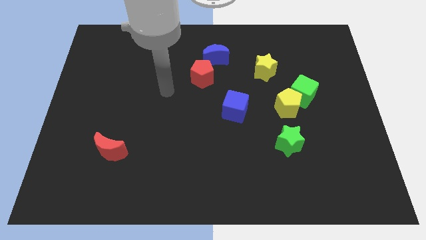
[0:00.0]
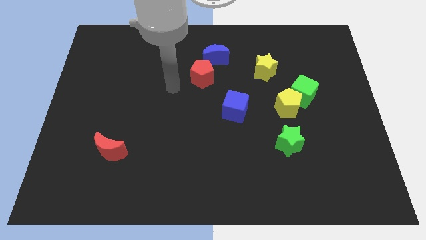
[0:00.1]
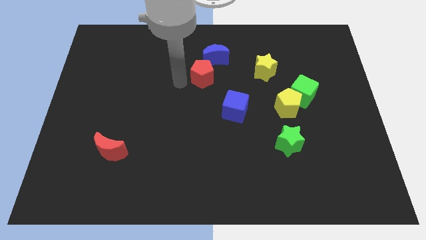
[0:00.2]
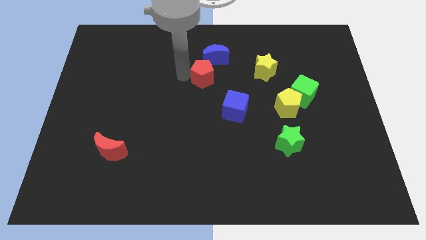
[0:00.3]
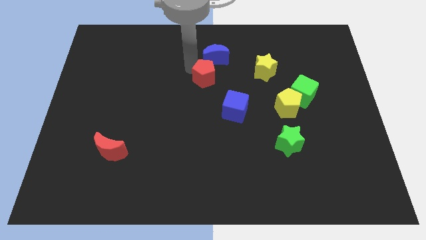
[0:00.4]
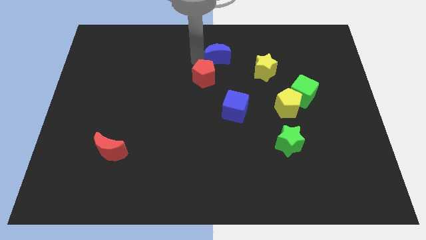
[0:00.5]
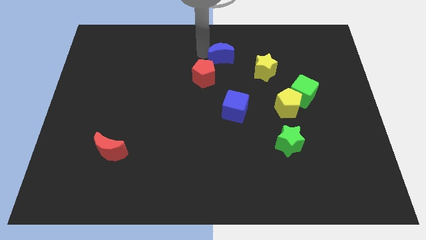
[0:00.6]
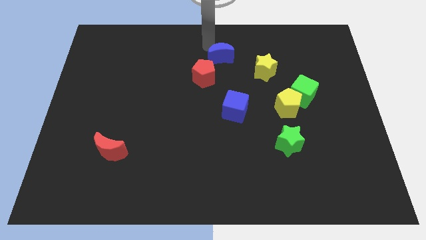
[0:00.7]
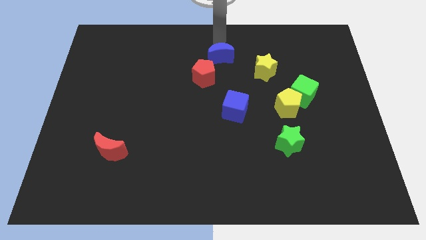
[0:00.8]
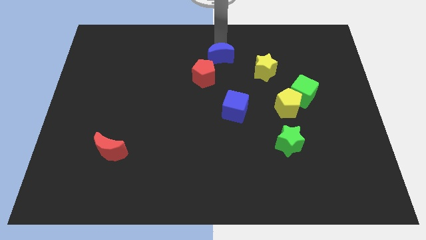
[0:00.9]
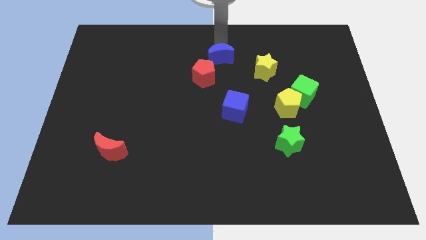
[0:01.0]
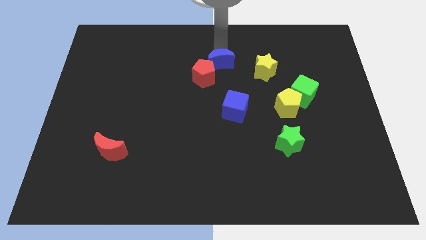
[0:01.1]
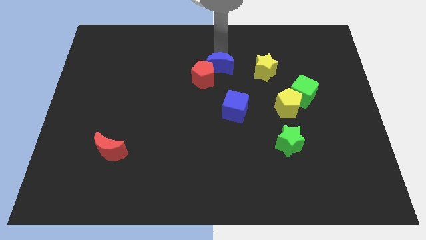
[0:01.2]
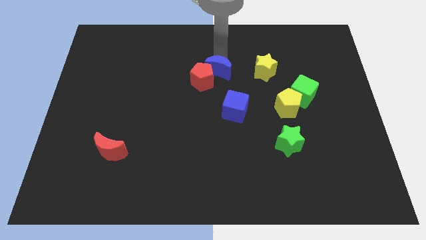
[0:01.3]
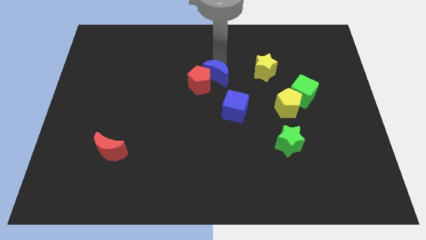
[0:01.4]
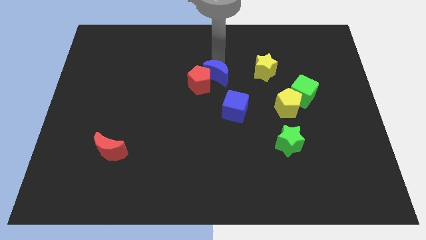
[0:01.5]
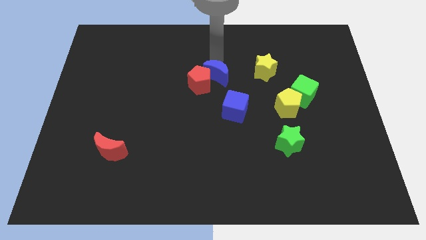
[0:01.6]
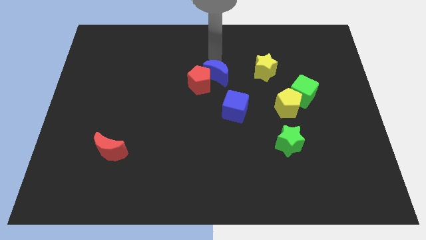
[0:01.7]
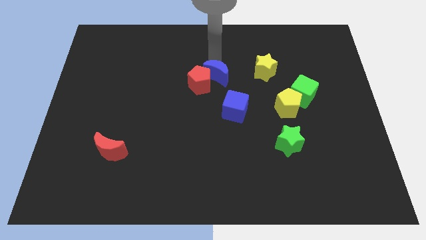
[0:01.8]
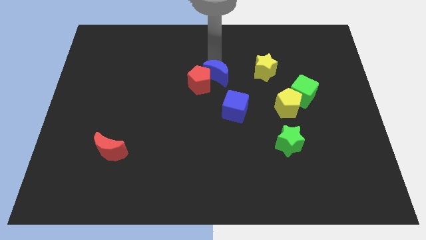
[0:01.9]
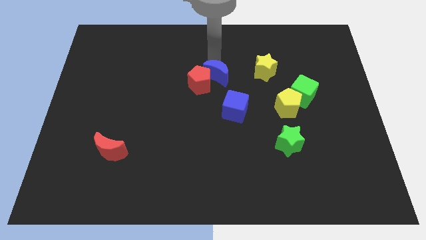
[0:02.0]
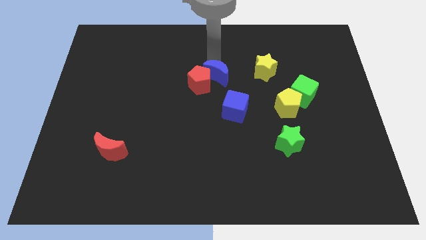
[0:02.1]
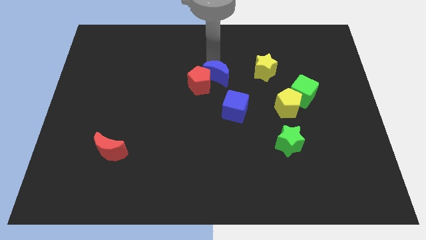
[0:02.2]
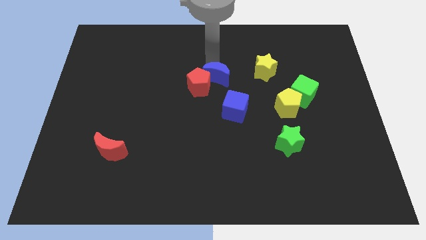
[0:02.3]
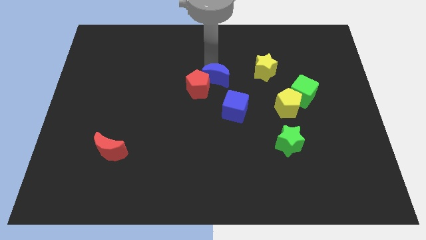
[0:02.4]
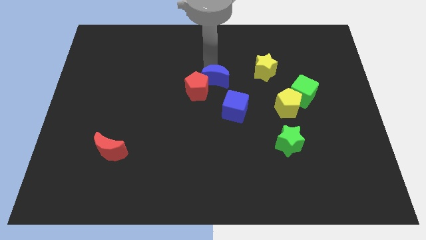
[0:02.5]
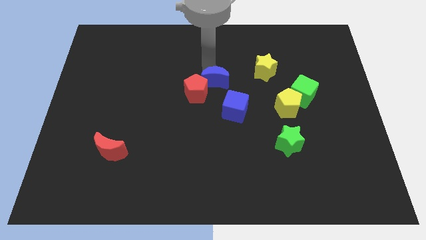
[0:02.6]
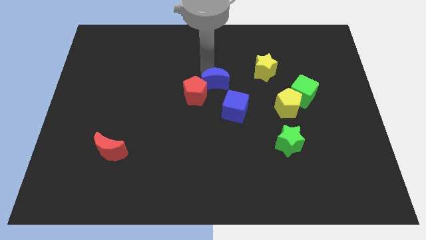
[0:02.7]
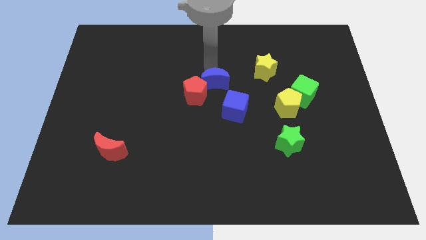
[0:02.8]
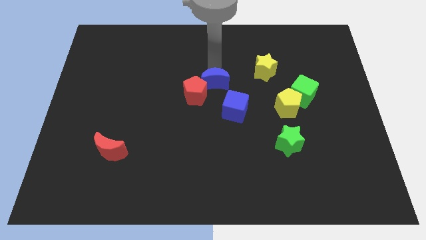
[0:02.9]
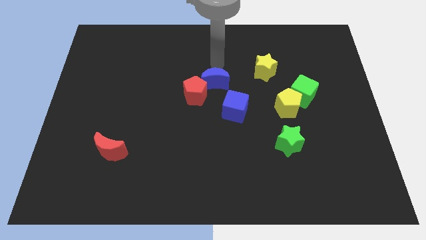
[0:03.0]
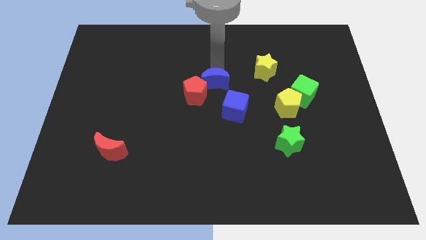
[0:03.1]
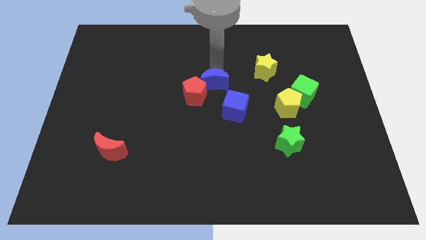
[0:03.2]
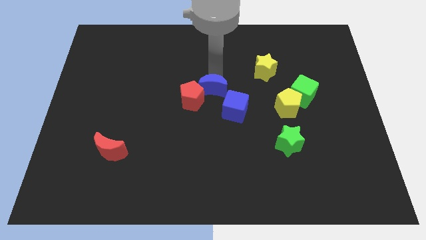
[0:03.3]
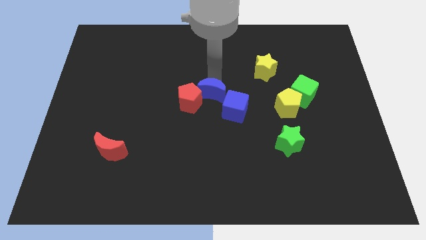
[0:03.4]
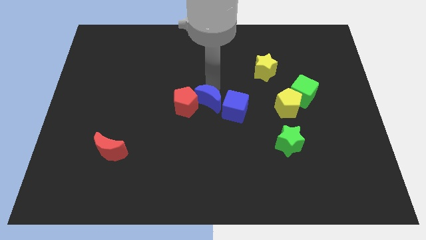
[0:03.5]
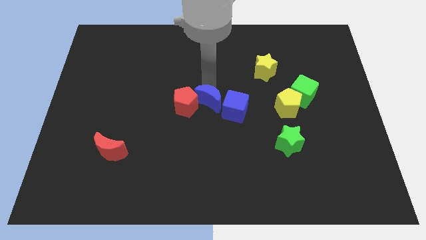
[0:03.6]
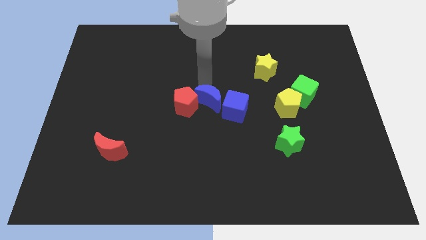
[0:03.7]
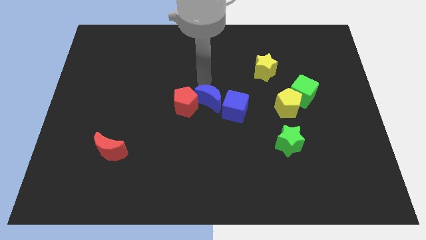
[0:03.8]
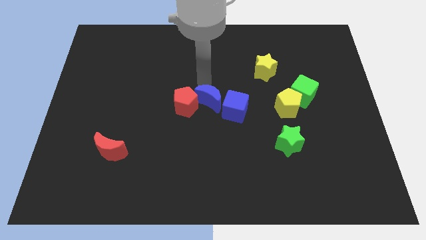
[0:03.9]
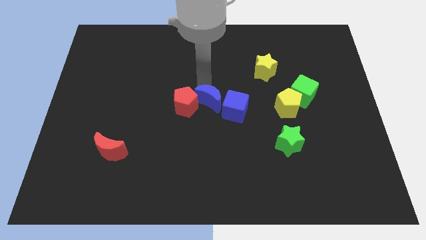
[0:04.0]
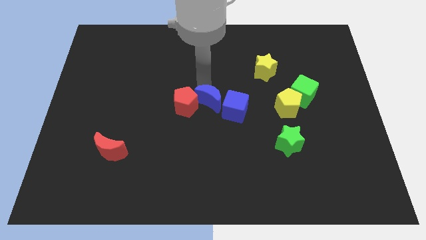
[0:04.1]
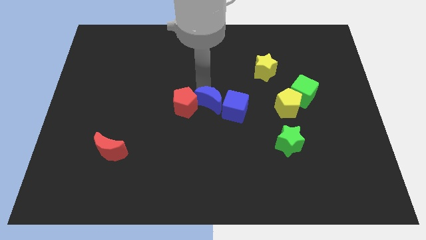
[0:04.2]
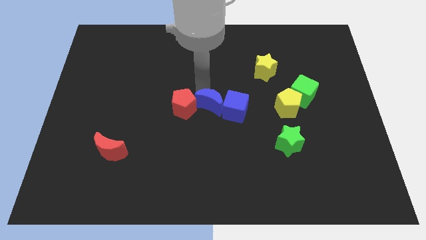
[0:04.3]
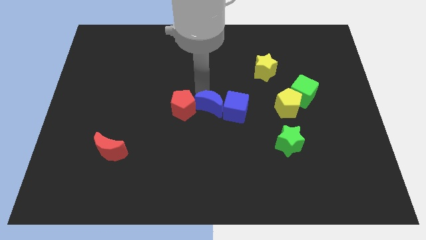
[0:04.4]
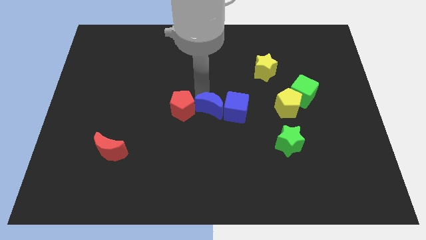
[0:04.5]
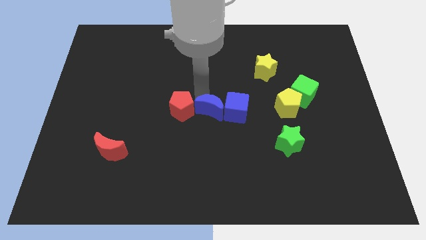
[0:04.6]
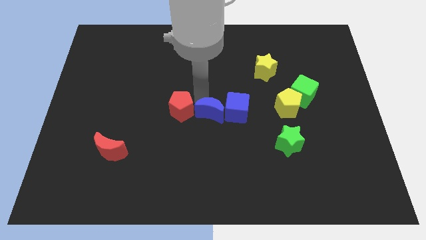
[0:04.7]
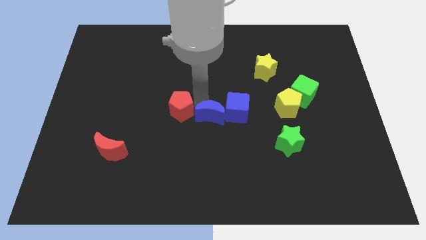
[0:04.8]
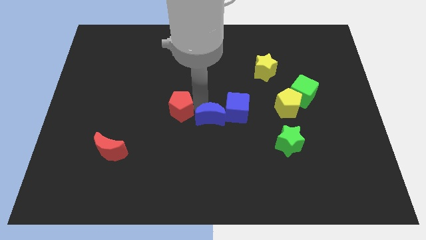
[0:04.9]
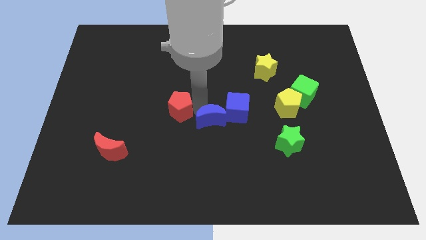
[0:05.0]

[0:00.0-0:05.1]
push the blue moon downwards

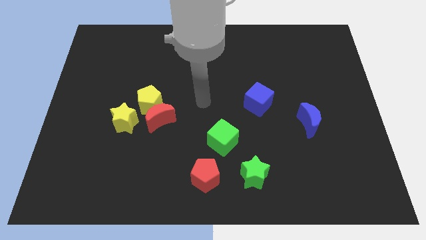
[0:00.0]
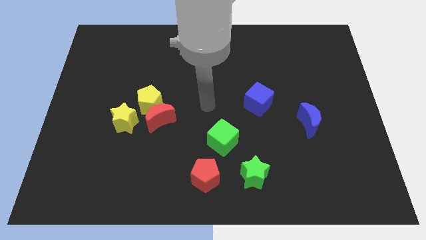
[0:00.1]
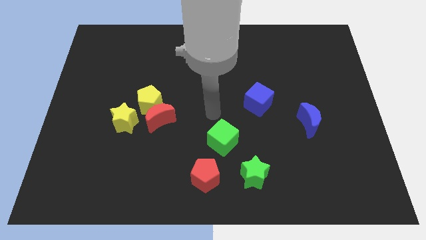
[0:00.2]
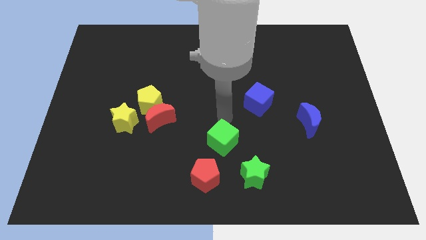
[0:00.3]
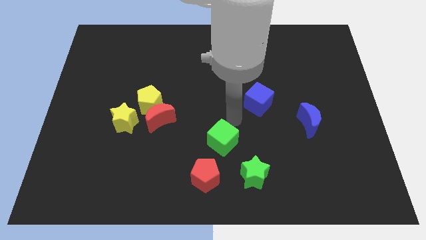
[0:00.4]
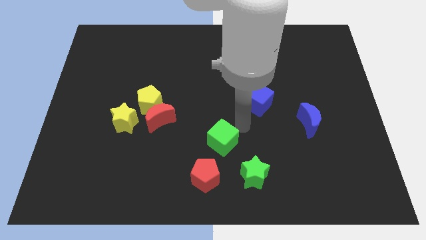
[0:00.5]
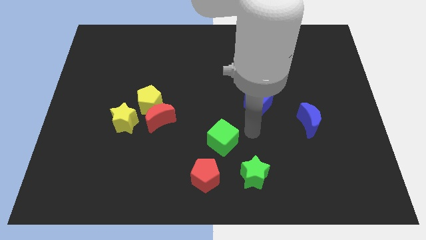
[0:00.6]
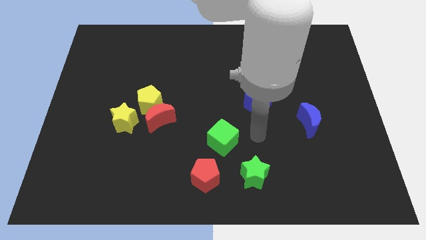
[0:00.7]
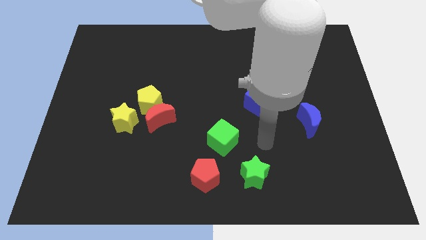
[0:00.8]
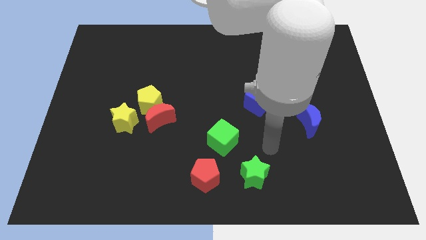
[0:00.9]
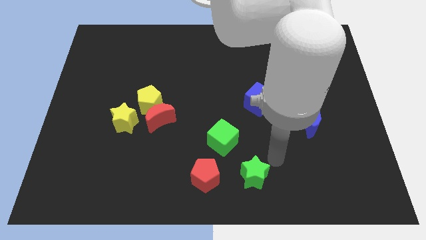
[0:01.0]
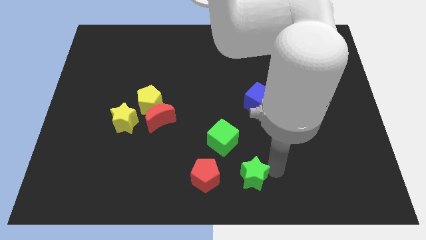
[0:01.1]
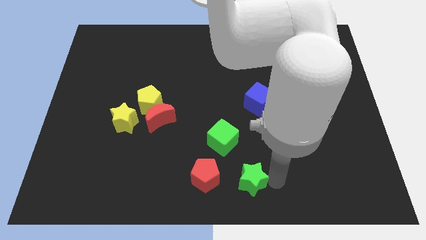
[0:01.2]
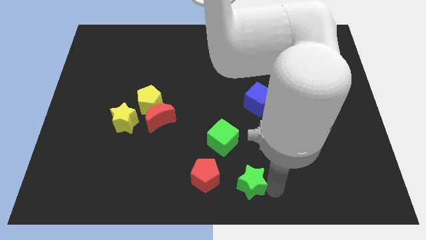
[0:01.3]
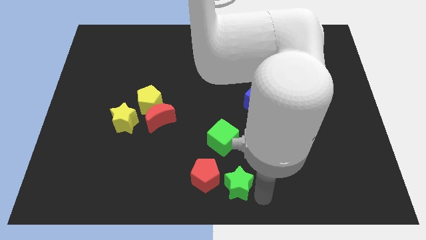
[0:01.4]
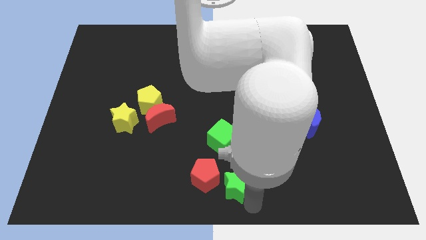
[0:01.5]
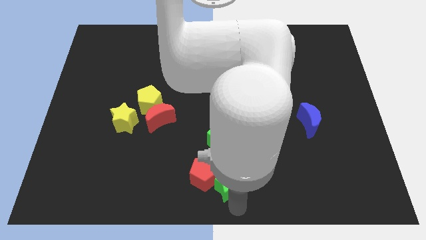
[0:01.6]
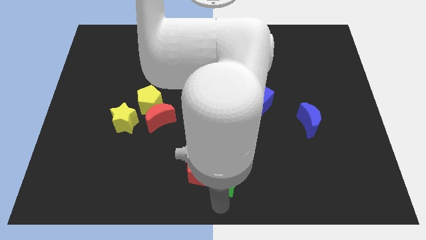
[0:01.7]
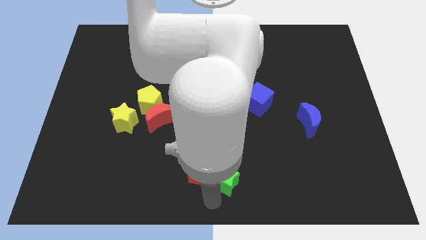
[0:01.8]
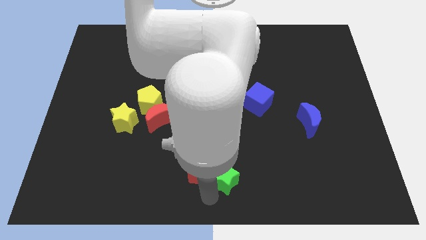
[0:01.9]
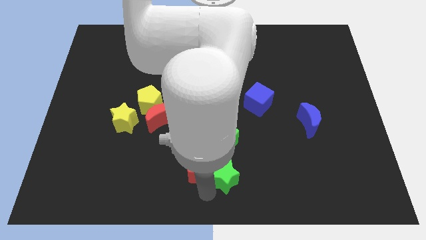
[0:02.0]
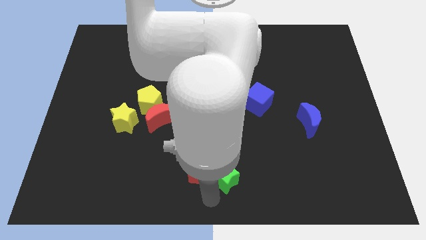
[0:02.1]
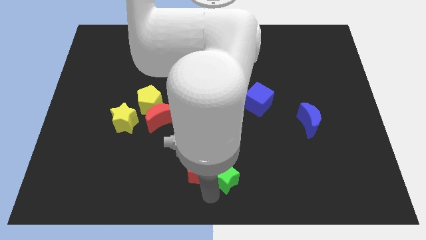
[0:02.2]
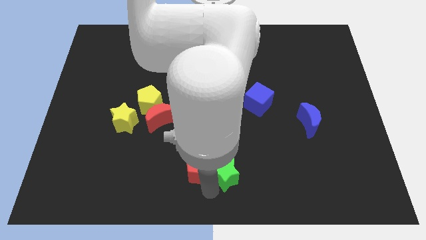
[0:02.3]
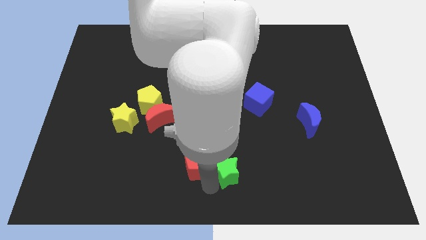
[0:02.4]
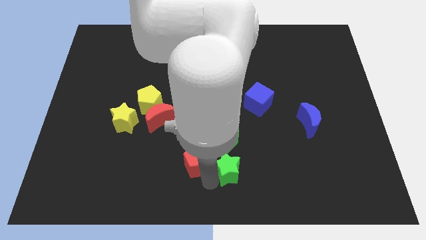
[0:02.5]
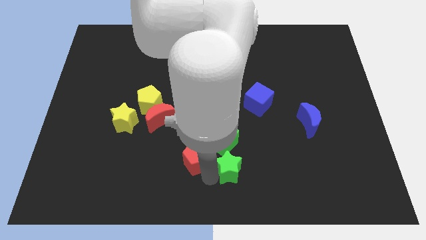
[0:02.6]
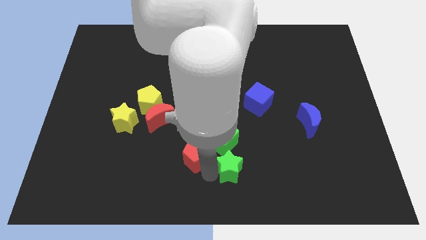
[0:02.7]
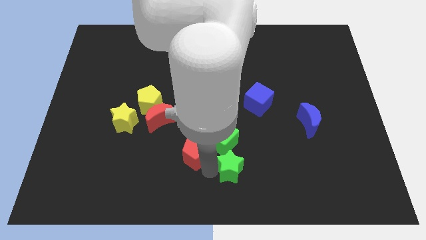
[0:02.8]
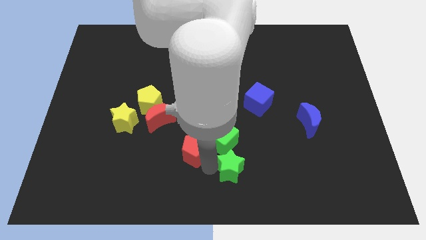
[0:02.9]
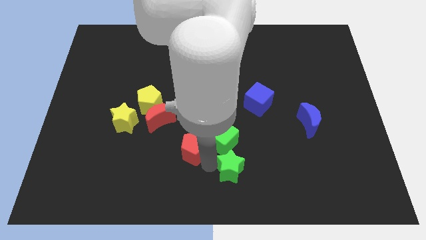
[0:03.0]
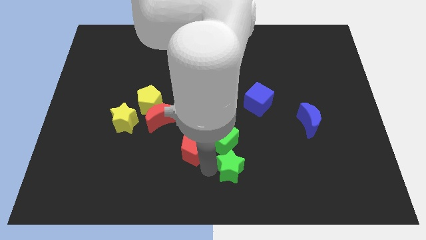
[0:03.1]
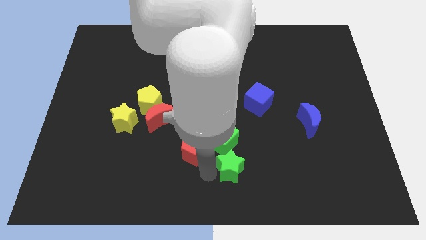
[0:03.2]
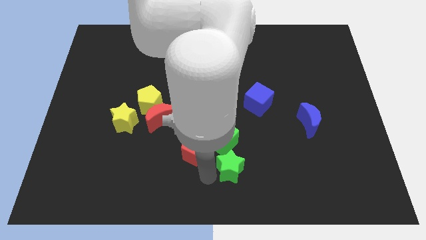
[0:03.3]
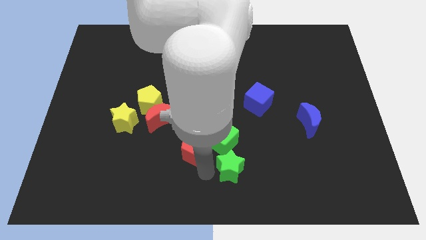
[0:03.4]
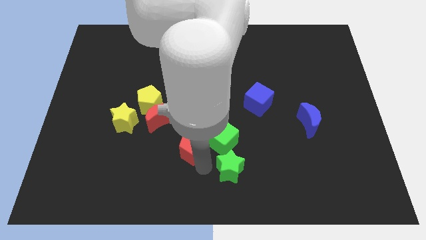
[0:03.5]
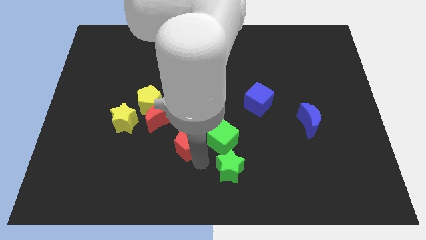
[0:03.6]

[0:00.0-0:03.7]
slide the red pentagon somewhat up
